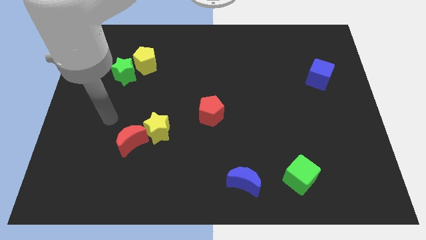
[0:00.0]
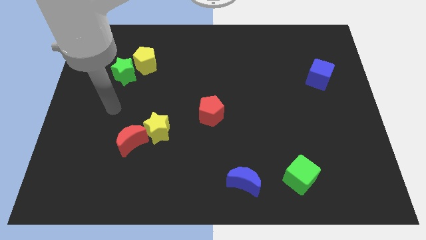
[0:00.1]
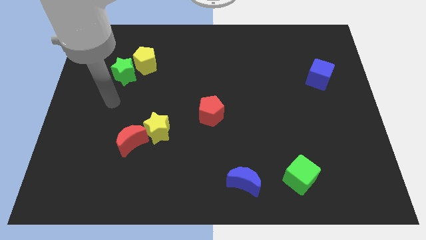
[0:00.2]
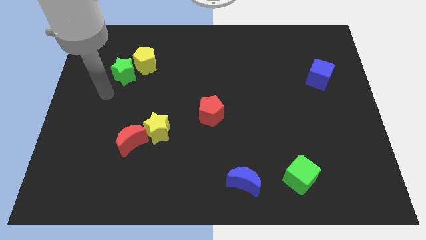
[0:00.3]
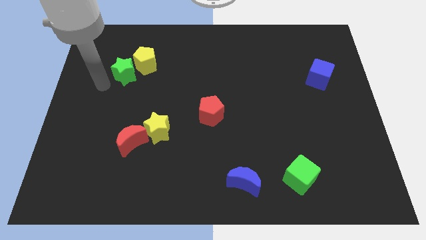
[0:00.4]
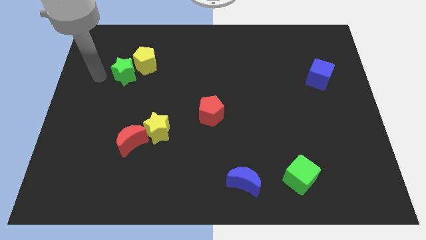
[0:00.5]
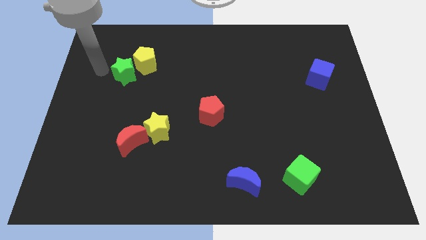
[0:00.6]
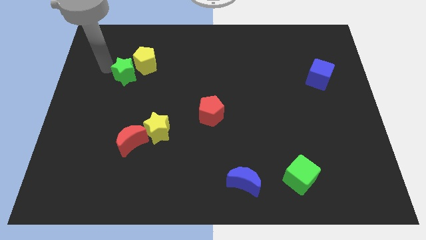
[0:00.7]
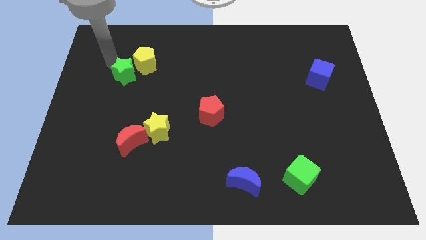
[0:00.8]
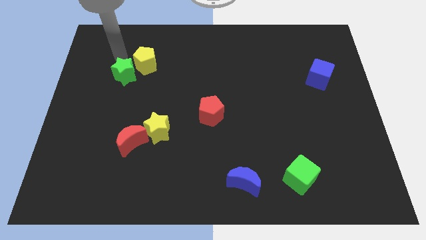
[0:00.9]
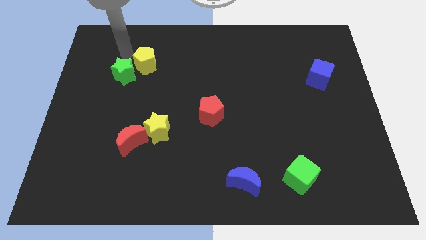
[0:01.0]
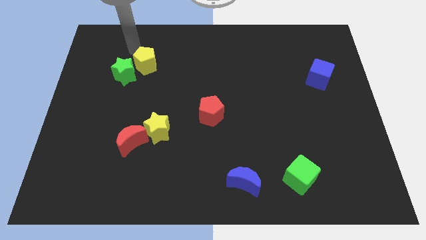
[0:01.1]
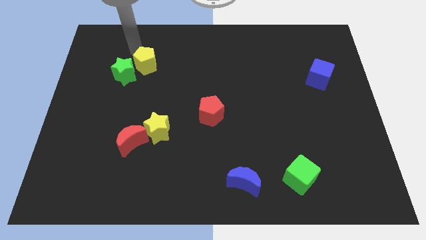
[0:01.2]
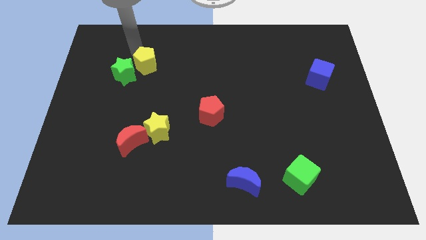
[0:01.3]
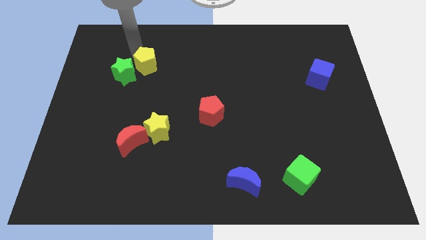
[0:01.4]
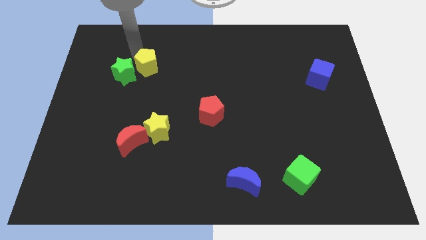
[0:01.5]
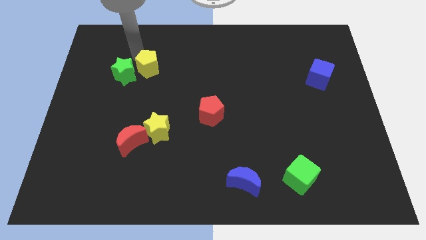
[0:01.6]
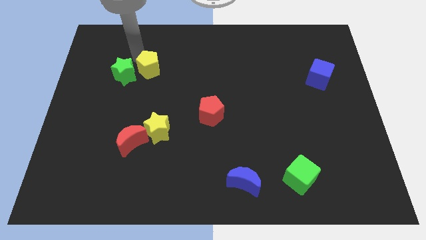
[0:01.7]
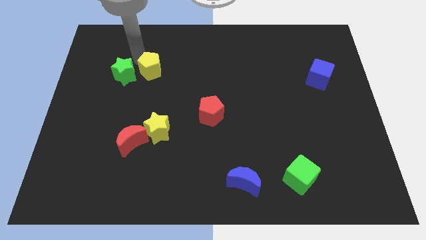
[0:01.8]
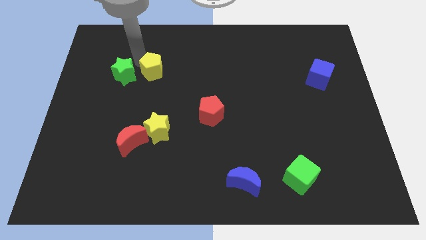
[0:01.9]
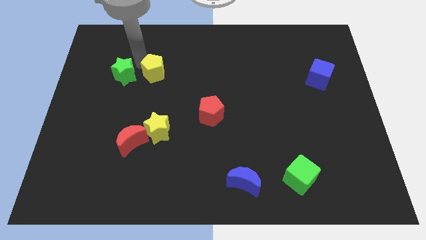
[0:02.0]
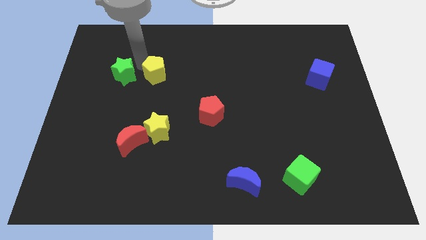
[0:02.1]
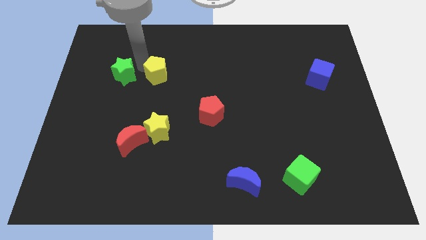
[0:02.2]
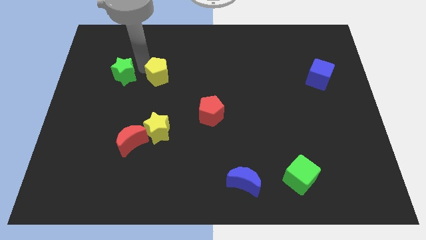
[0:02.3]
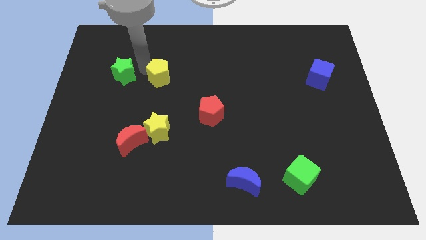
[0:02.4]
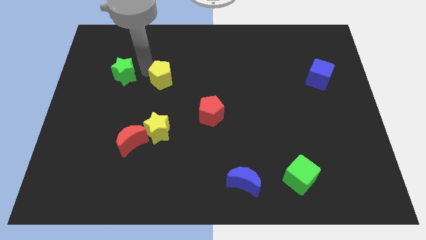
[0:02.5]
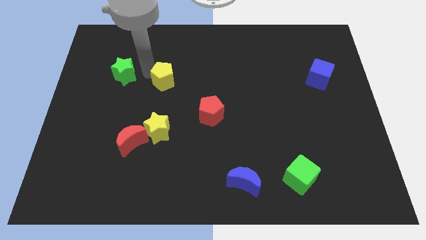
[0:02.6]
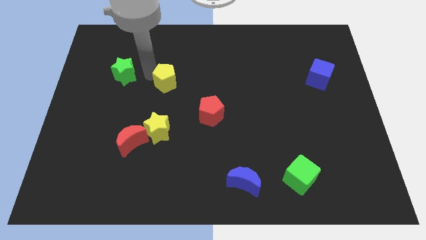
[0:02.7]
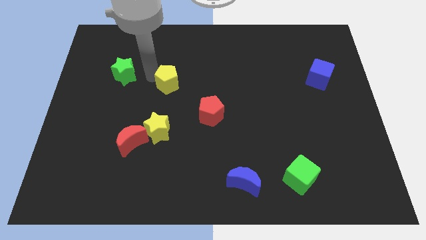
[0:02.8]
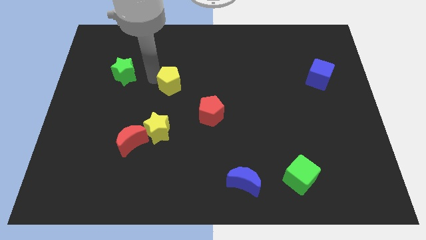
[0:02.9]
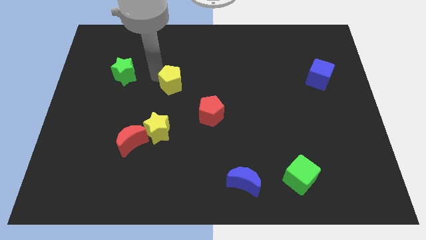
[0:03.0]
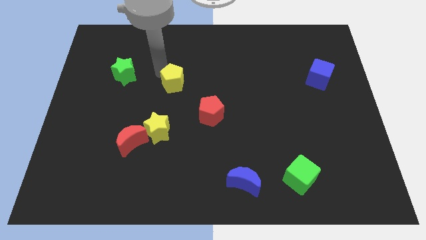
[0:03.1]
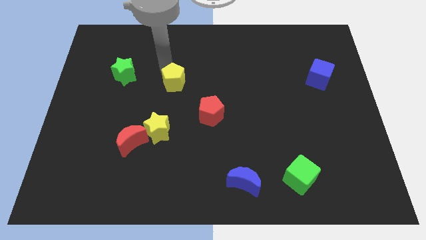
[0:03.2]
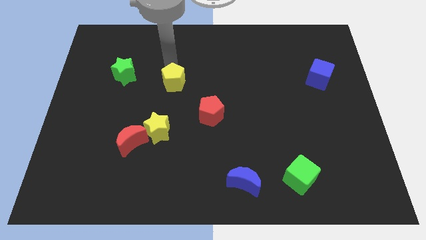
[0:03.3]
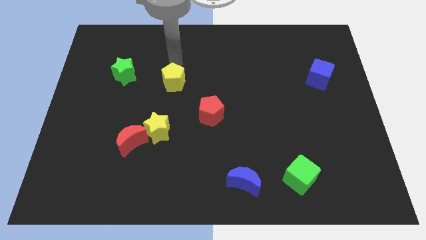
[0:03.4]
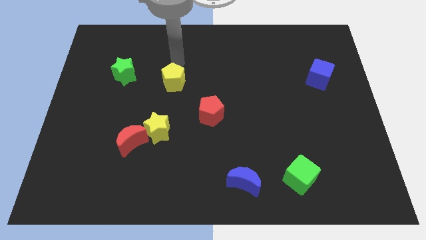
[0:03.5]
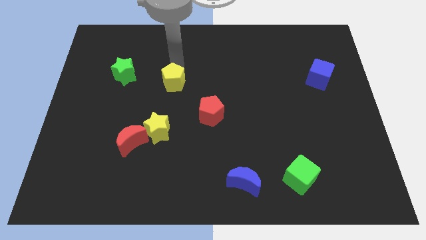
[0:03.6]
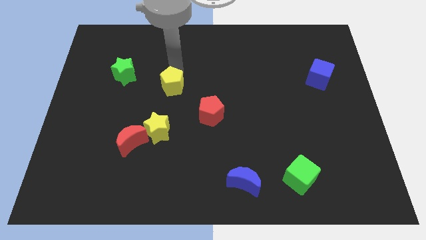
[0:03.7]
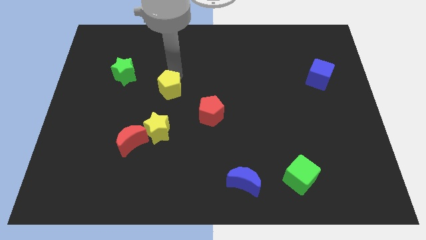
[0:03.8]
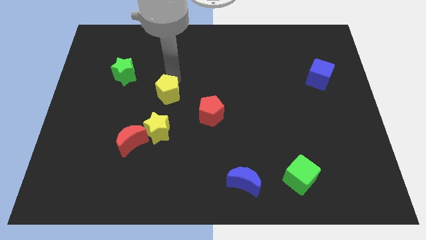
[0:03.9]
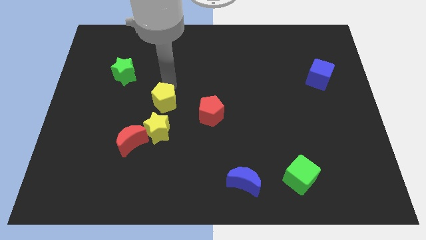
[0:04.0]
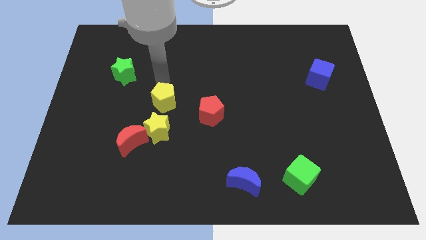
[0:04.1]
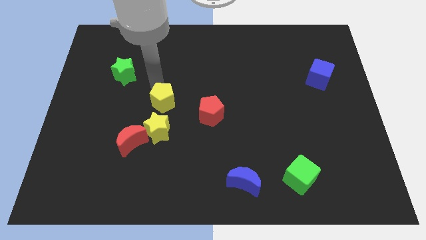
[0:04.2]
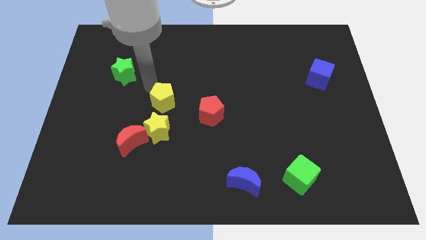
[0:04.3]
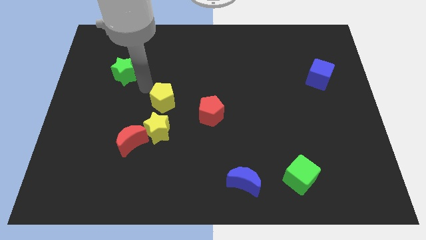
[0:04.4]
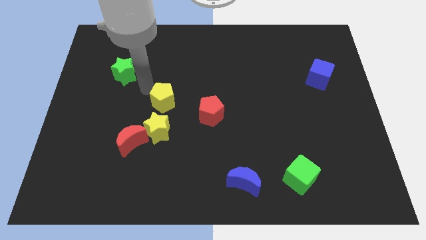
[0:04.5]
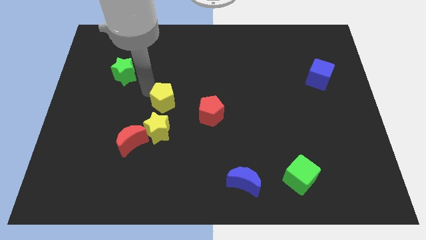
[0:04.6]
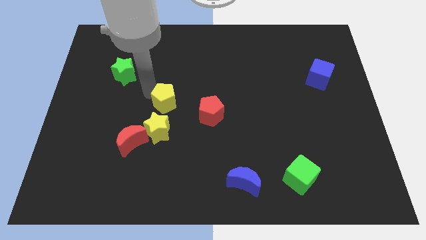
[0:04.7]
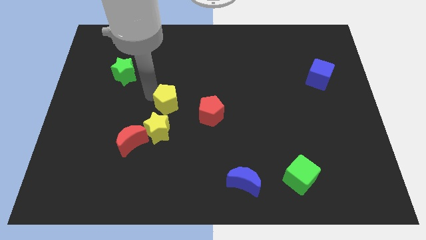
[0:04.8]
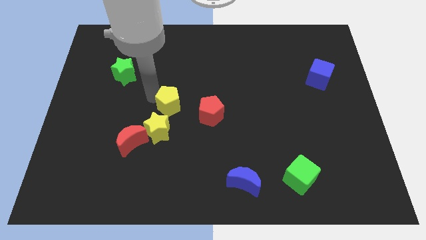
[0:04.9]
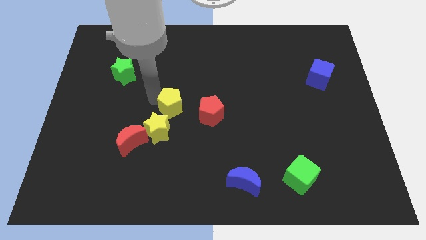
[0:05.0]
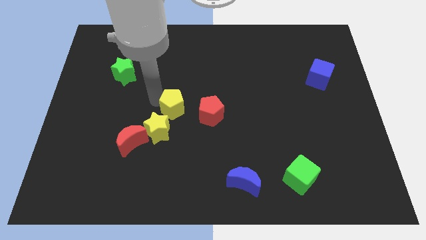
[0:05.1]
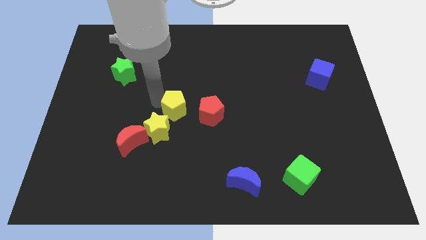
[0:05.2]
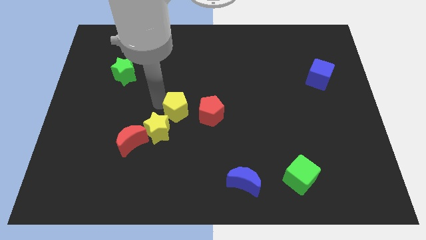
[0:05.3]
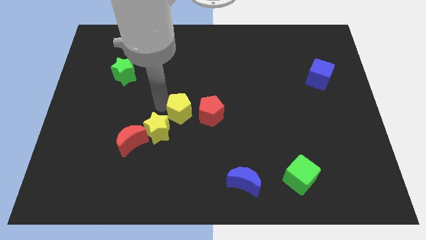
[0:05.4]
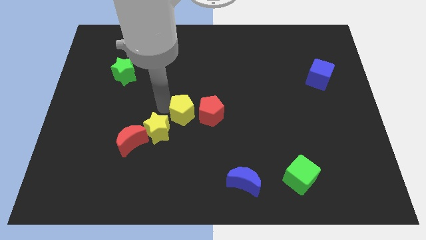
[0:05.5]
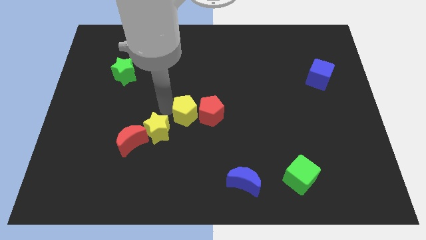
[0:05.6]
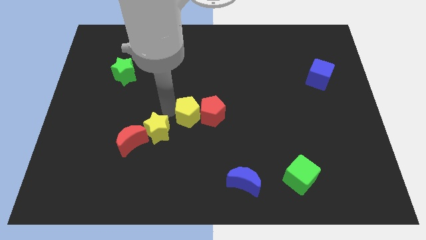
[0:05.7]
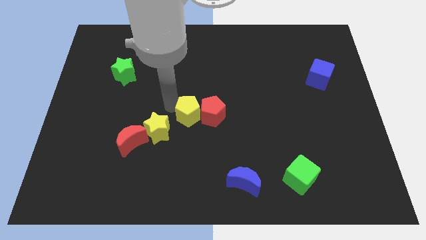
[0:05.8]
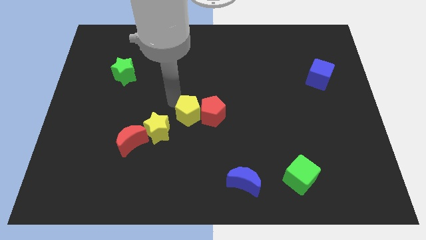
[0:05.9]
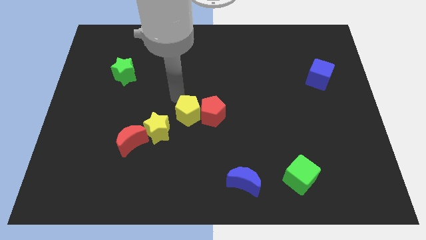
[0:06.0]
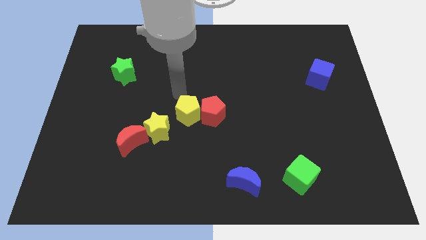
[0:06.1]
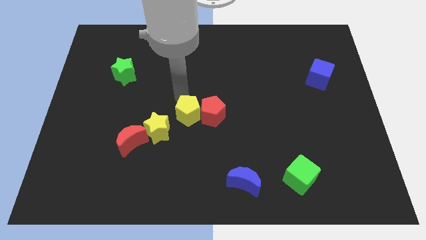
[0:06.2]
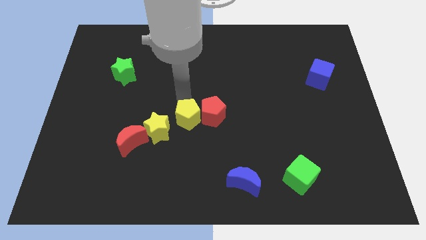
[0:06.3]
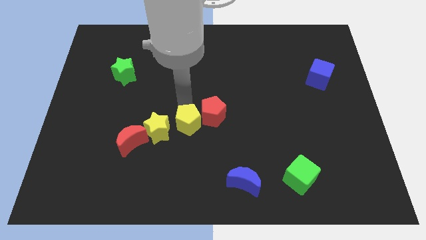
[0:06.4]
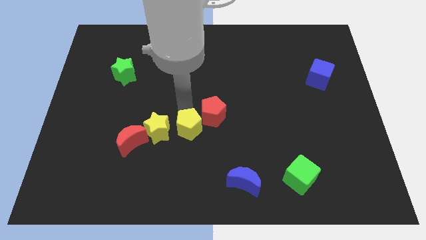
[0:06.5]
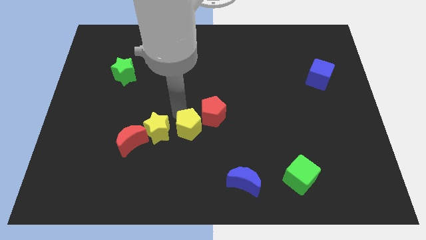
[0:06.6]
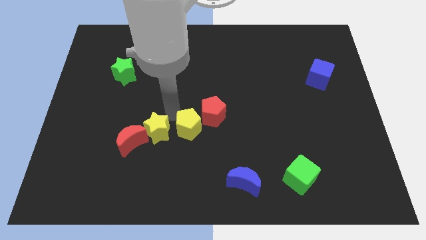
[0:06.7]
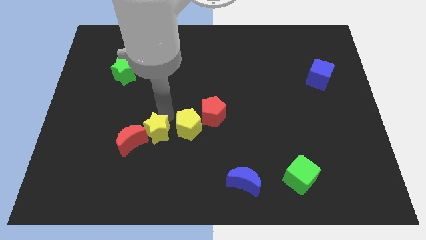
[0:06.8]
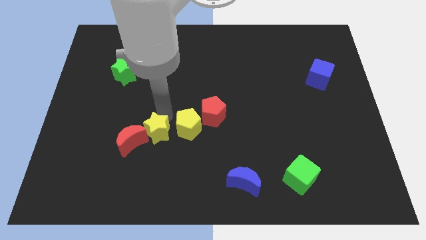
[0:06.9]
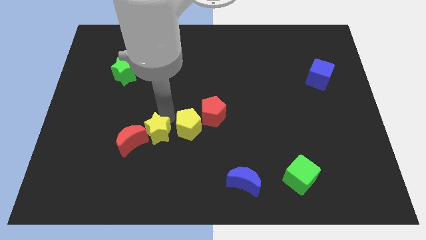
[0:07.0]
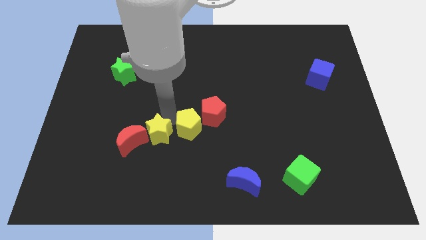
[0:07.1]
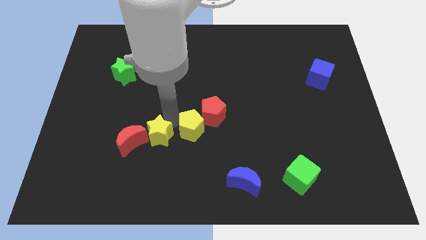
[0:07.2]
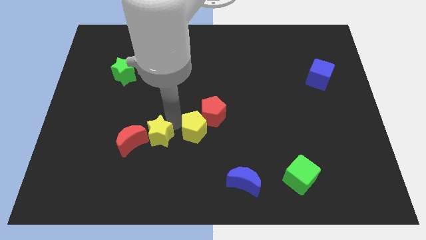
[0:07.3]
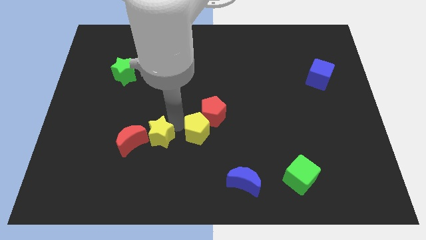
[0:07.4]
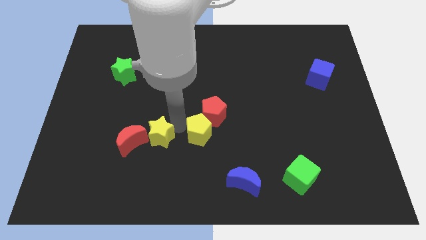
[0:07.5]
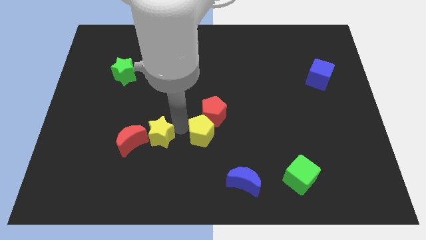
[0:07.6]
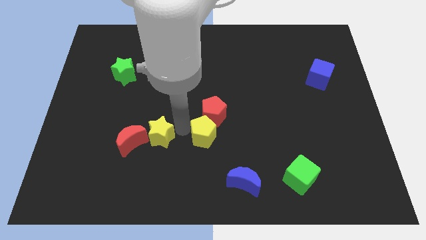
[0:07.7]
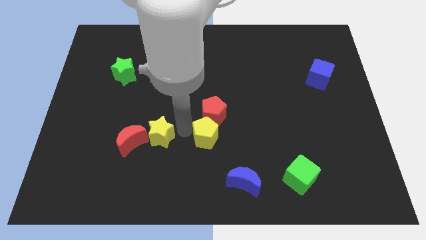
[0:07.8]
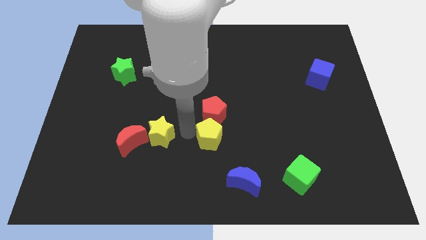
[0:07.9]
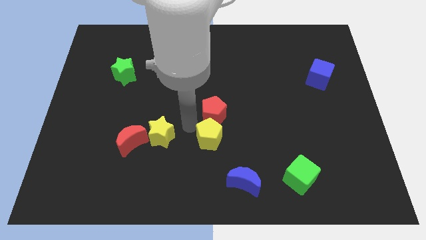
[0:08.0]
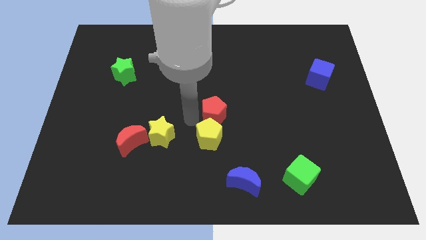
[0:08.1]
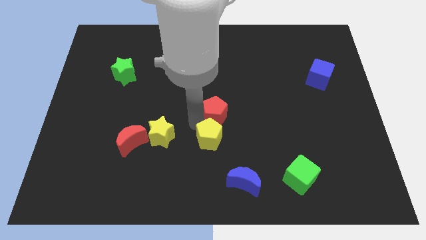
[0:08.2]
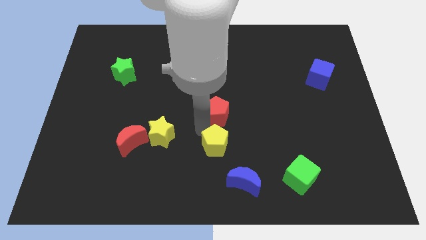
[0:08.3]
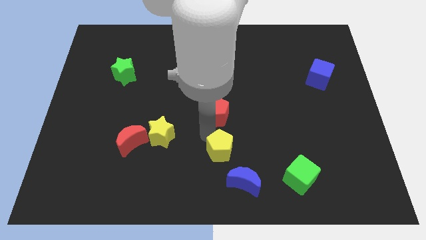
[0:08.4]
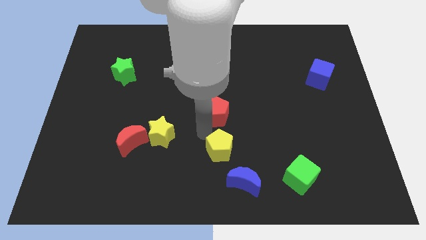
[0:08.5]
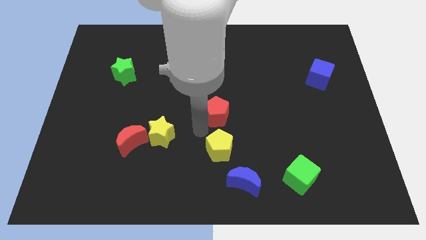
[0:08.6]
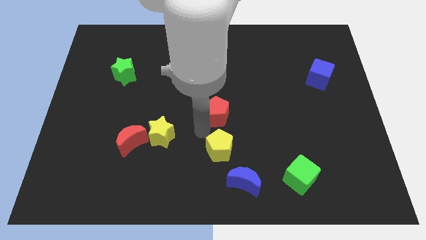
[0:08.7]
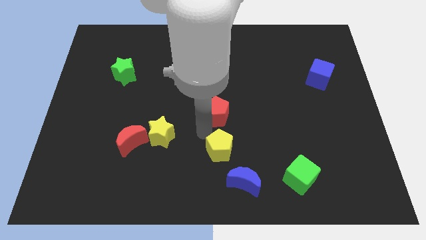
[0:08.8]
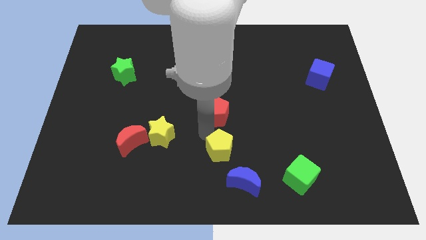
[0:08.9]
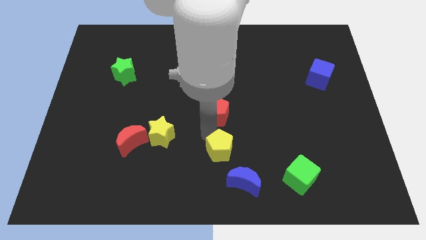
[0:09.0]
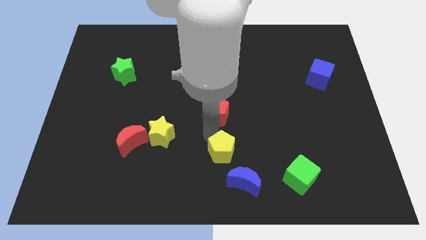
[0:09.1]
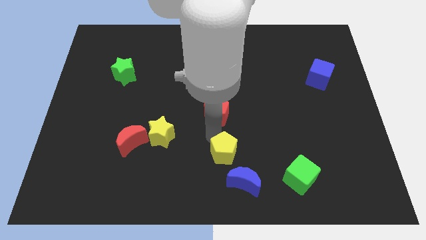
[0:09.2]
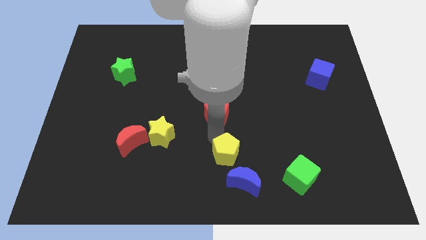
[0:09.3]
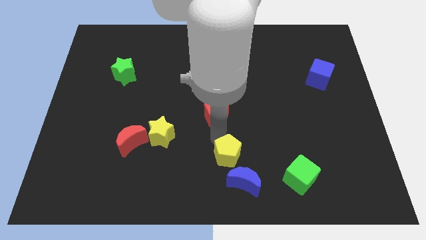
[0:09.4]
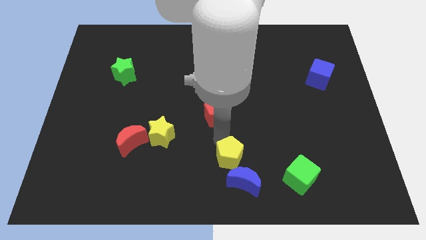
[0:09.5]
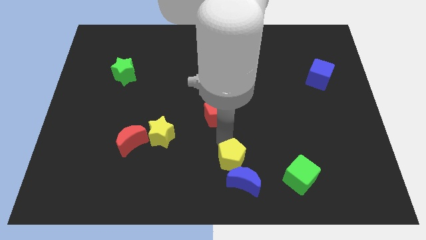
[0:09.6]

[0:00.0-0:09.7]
put the yellow pentagon towards the blue moon
